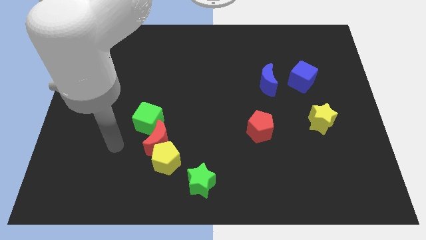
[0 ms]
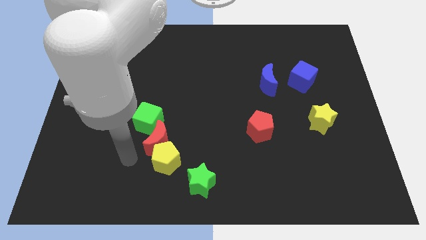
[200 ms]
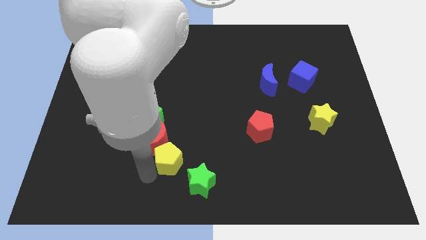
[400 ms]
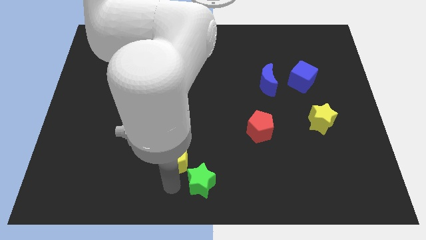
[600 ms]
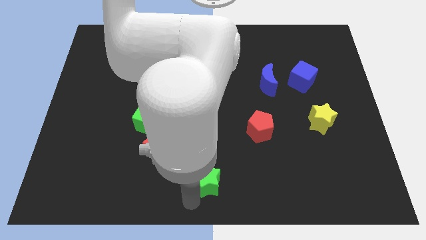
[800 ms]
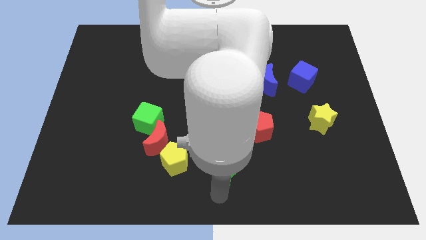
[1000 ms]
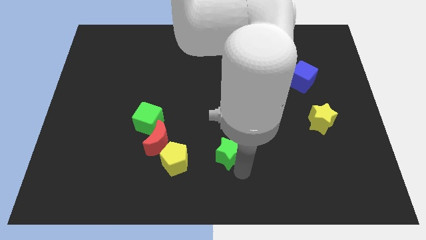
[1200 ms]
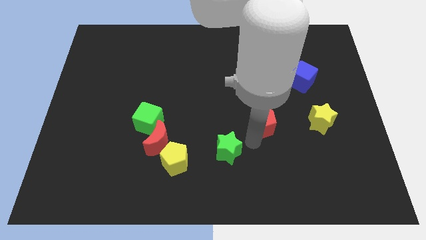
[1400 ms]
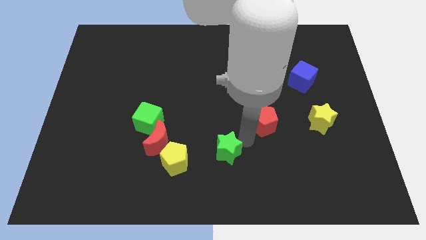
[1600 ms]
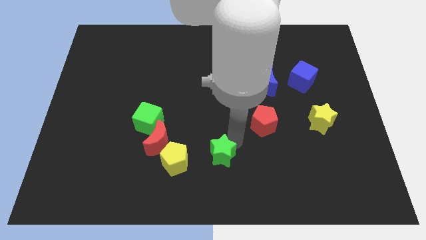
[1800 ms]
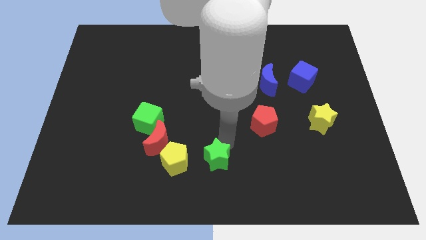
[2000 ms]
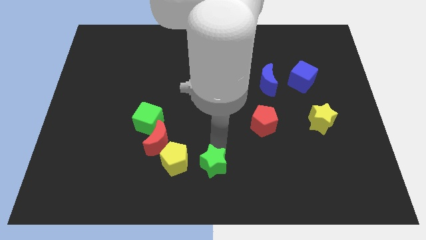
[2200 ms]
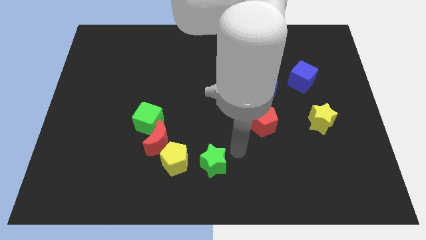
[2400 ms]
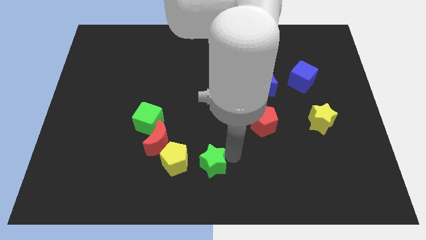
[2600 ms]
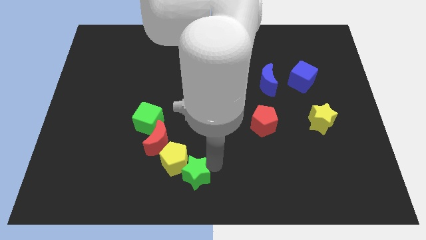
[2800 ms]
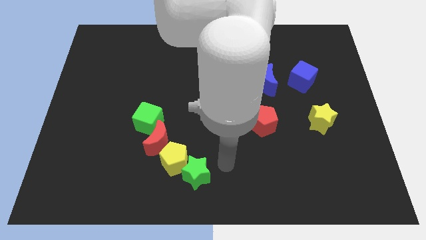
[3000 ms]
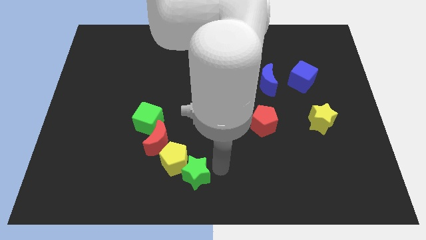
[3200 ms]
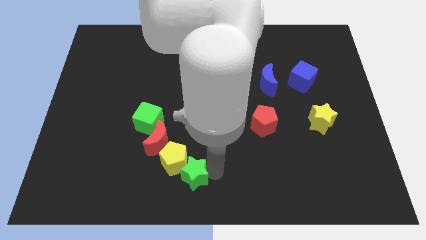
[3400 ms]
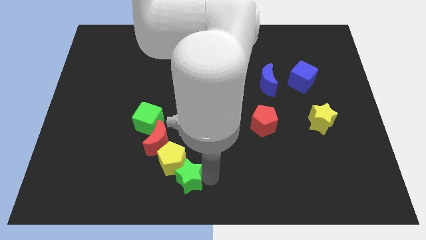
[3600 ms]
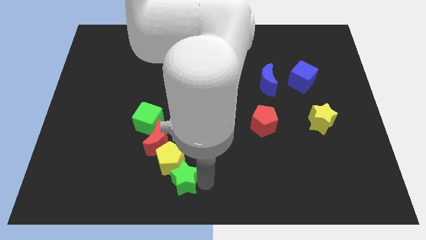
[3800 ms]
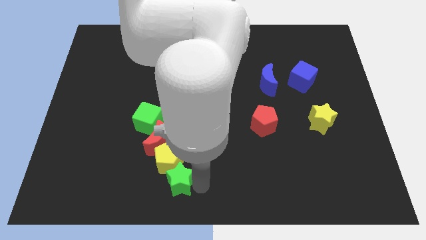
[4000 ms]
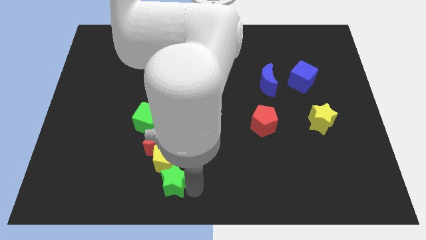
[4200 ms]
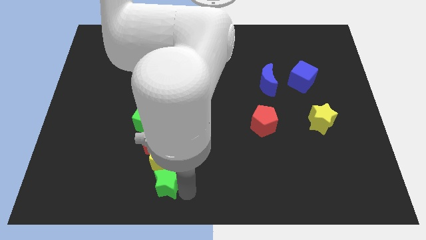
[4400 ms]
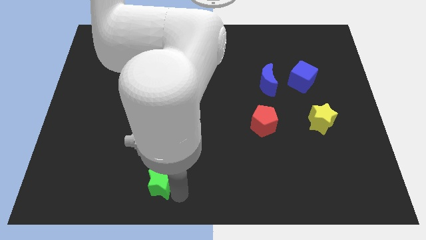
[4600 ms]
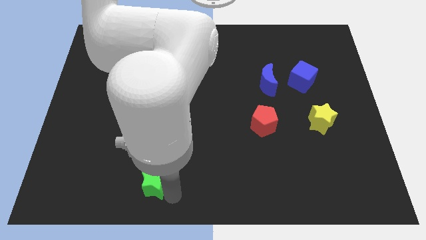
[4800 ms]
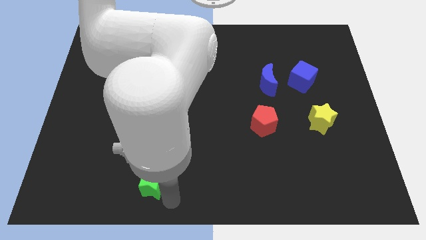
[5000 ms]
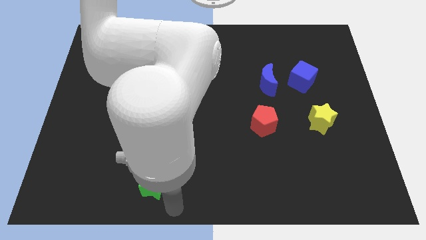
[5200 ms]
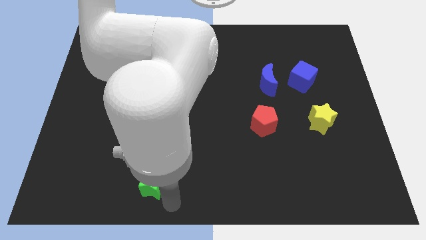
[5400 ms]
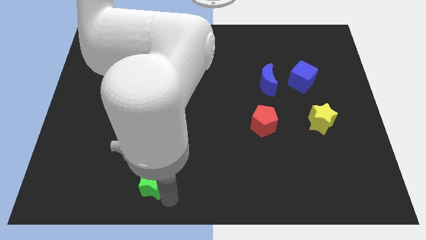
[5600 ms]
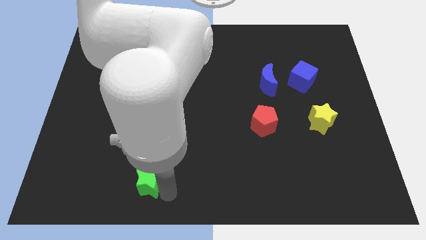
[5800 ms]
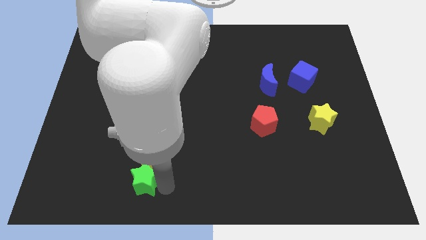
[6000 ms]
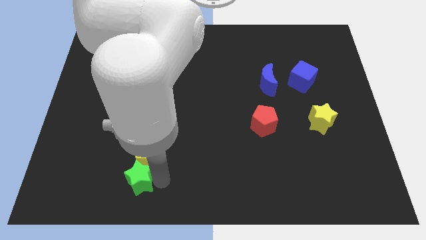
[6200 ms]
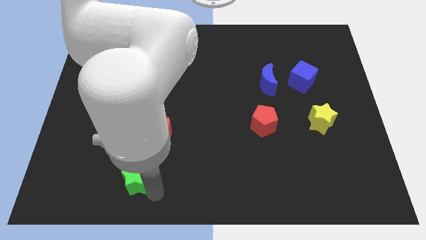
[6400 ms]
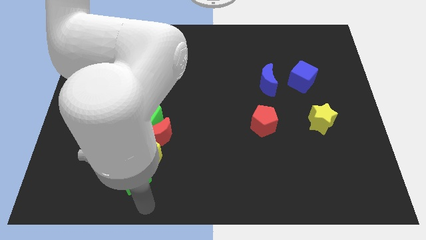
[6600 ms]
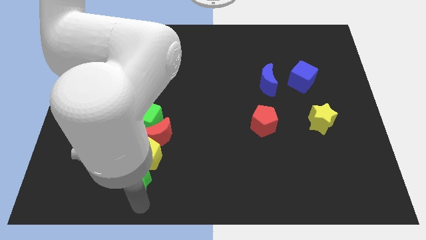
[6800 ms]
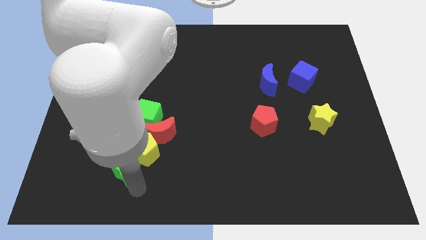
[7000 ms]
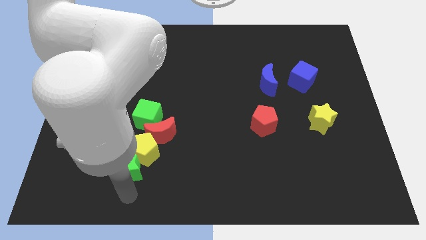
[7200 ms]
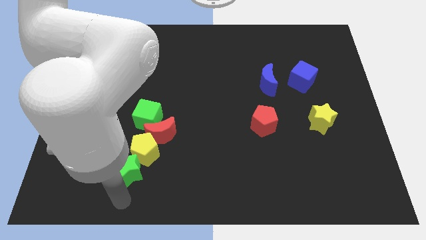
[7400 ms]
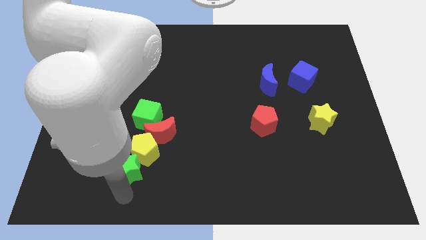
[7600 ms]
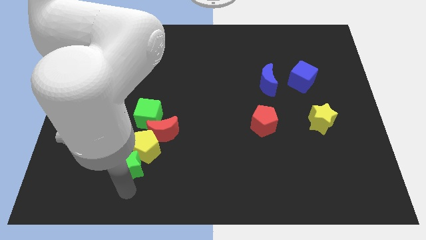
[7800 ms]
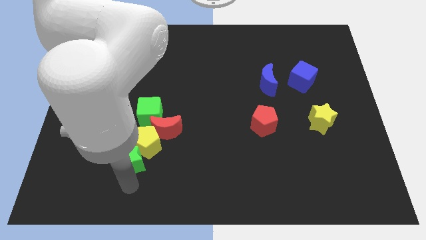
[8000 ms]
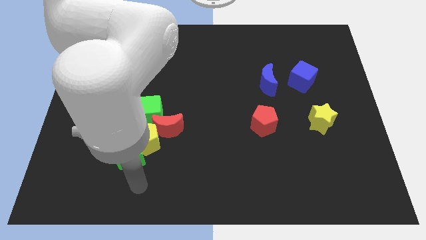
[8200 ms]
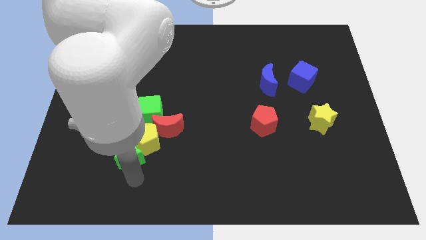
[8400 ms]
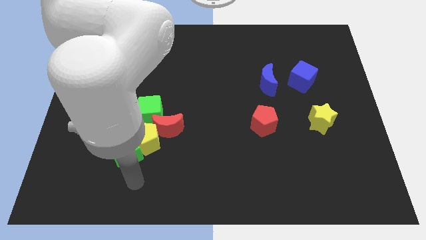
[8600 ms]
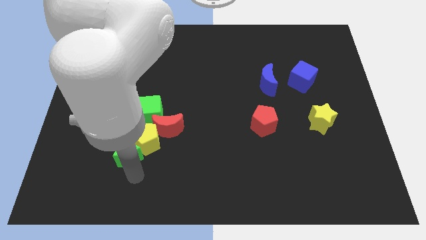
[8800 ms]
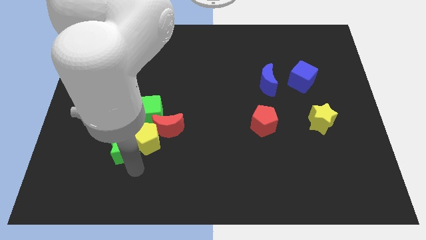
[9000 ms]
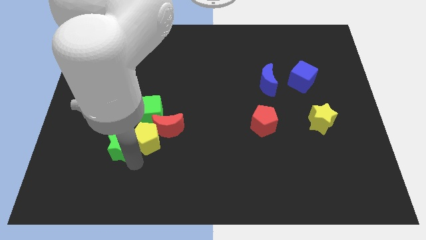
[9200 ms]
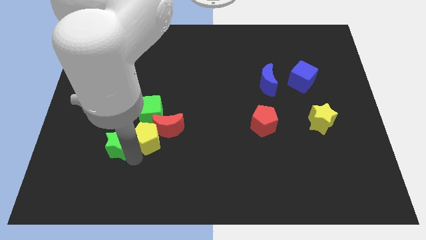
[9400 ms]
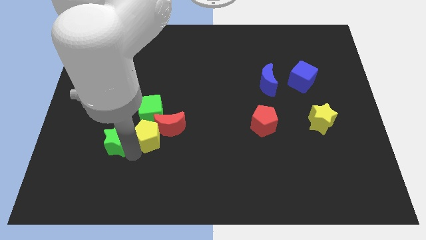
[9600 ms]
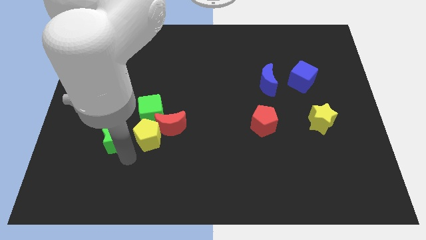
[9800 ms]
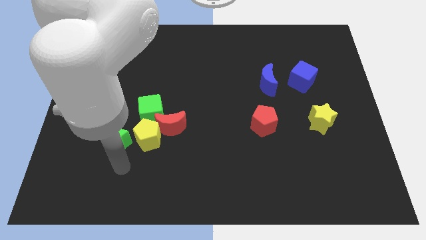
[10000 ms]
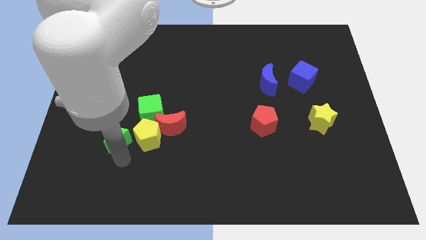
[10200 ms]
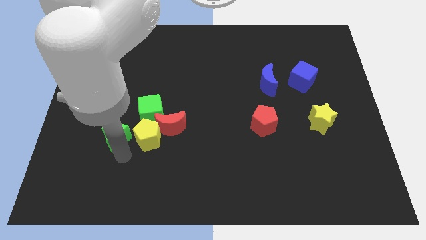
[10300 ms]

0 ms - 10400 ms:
move the green star diagonally upwards and left

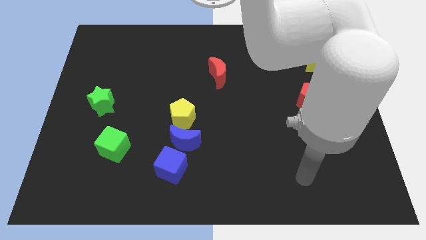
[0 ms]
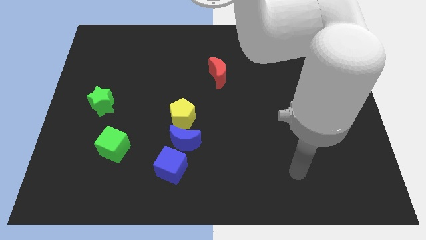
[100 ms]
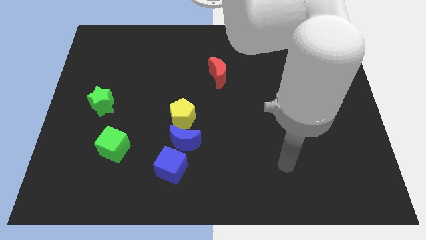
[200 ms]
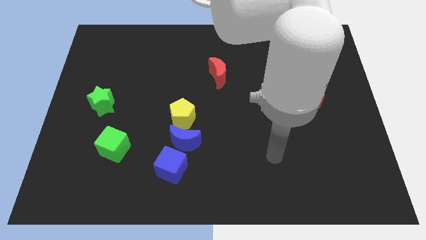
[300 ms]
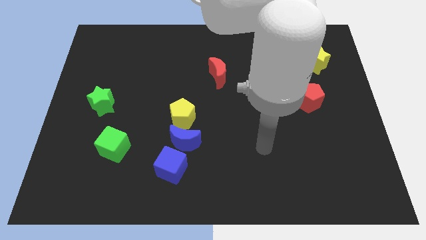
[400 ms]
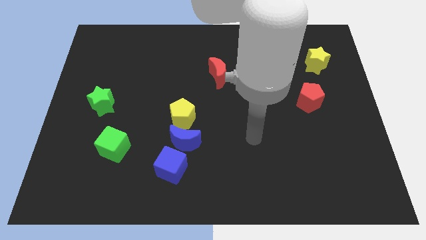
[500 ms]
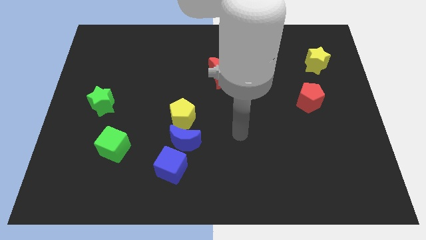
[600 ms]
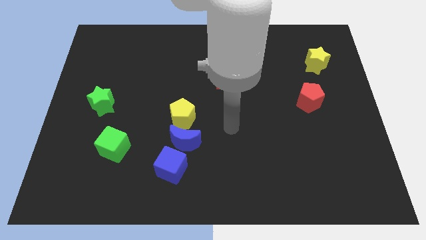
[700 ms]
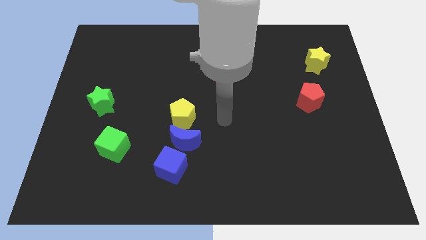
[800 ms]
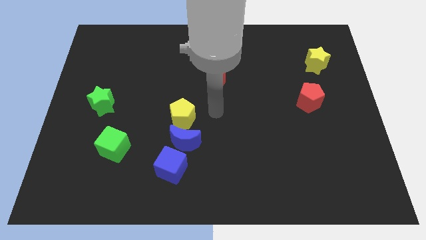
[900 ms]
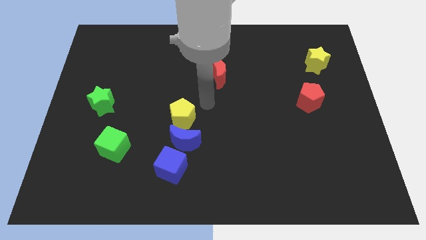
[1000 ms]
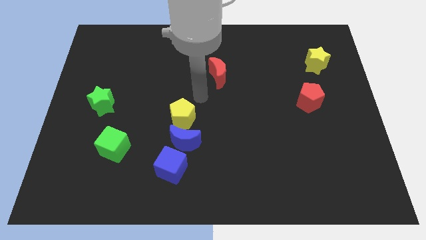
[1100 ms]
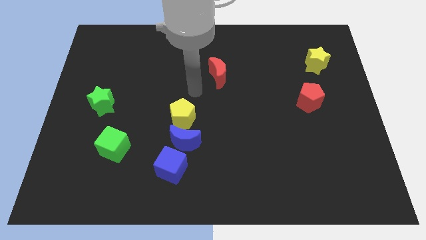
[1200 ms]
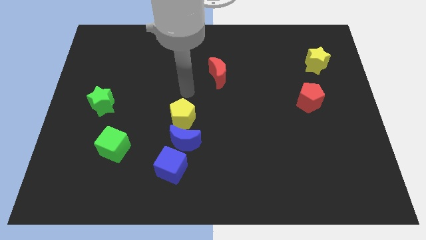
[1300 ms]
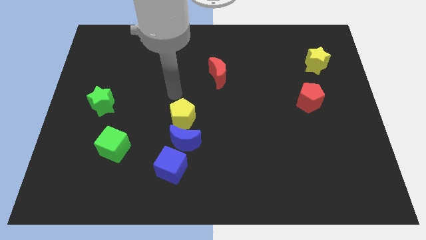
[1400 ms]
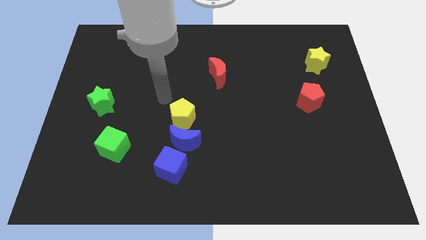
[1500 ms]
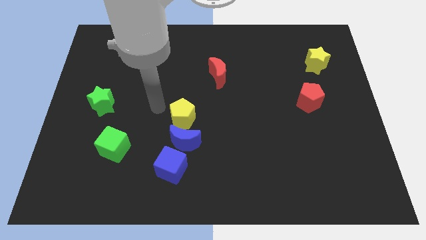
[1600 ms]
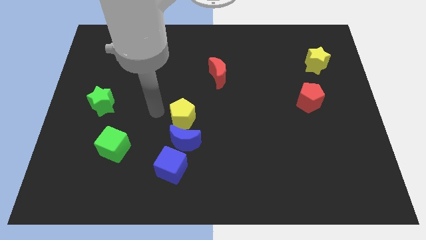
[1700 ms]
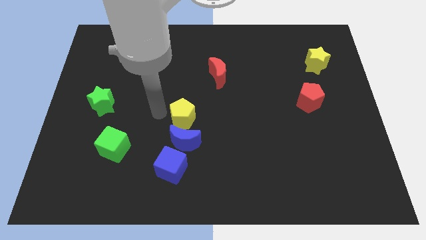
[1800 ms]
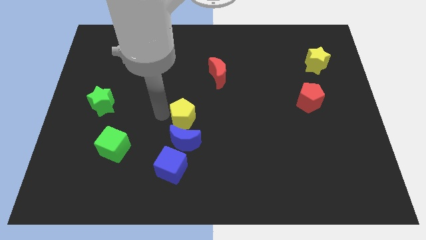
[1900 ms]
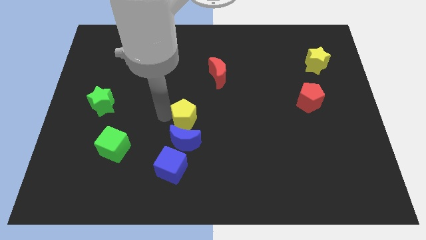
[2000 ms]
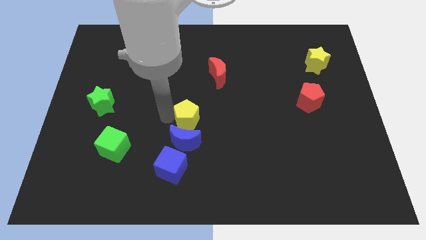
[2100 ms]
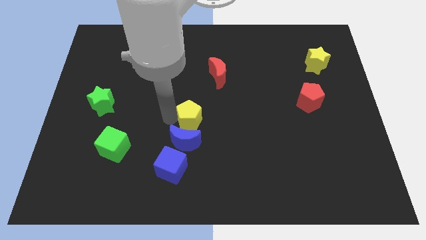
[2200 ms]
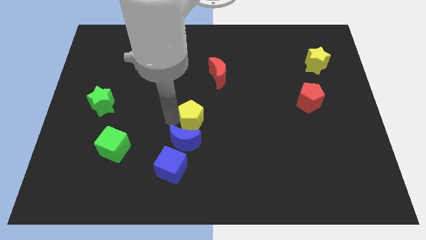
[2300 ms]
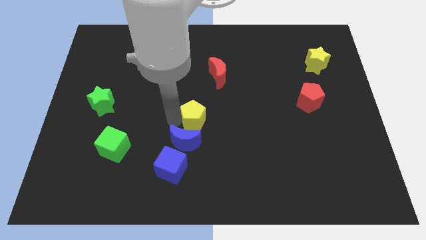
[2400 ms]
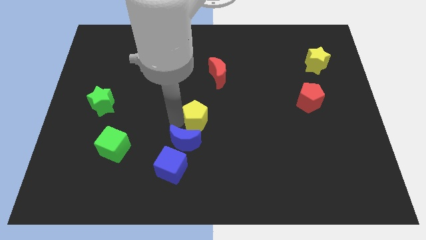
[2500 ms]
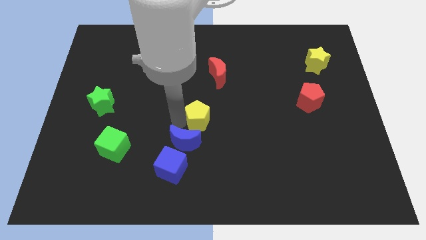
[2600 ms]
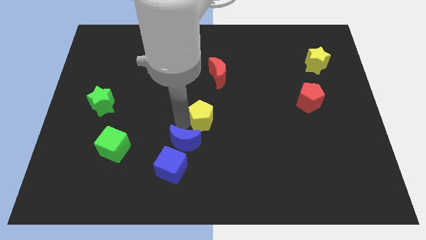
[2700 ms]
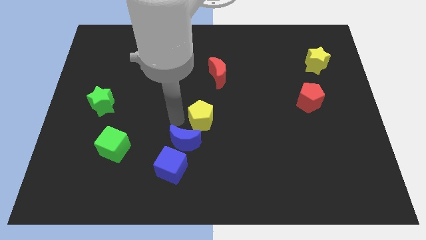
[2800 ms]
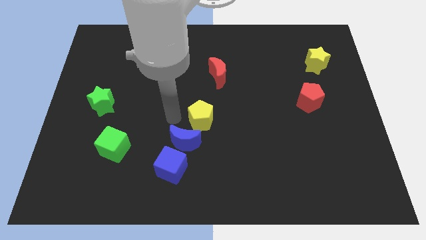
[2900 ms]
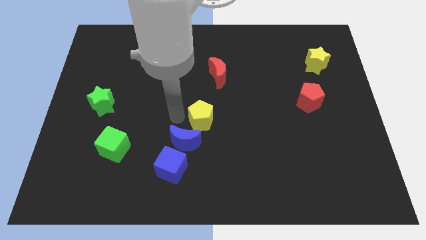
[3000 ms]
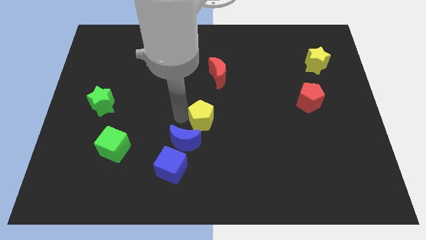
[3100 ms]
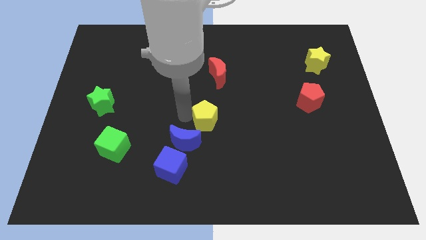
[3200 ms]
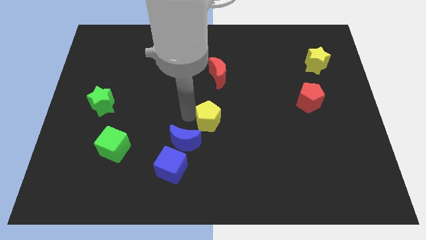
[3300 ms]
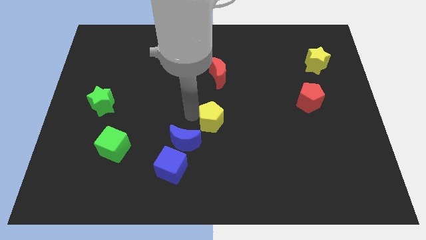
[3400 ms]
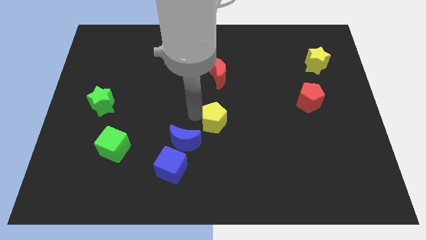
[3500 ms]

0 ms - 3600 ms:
slide the yellow pentagon slightly right
